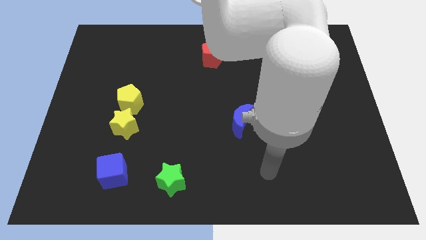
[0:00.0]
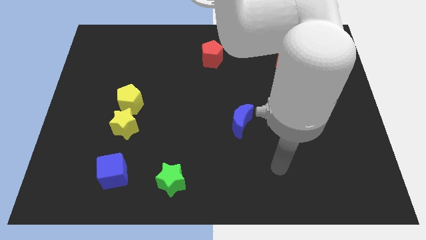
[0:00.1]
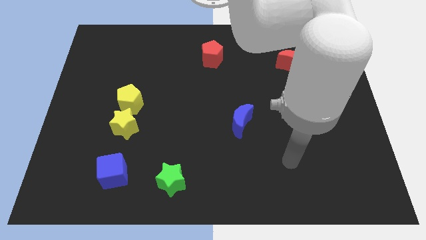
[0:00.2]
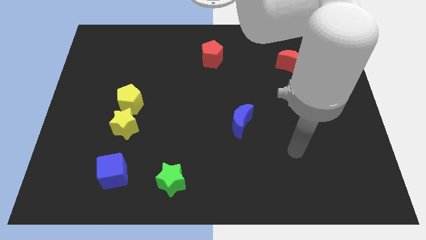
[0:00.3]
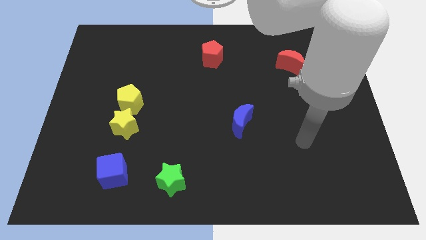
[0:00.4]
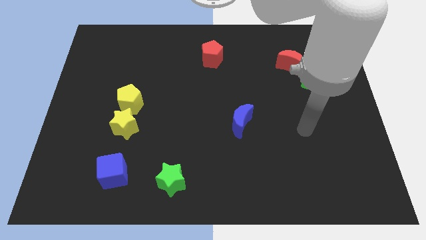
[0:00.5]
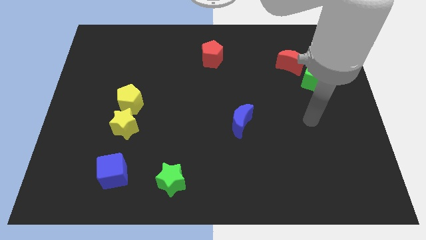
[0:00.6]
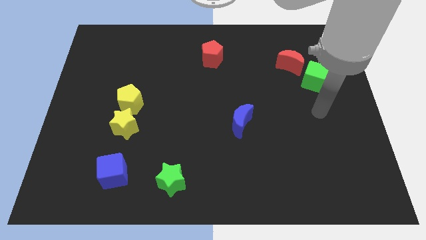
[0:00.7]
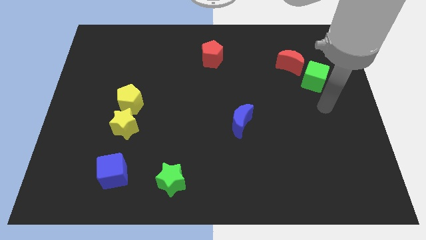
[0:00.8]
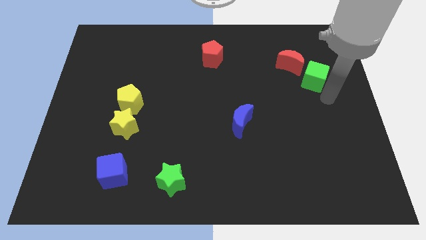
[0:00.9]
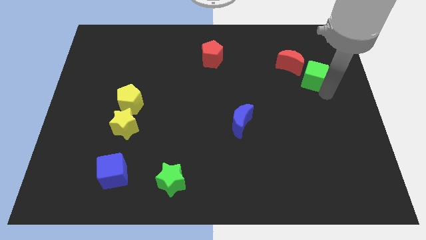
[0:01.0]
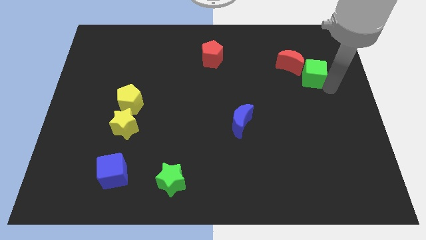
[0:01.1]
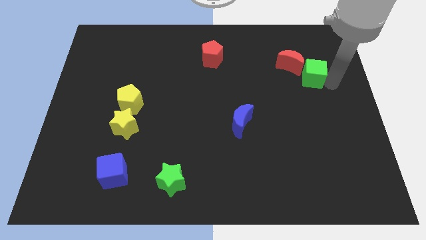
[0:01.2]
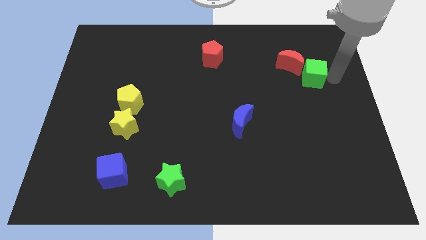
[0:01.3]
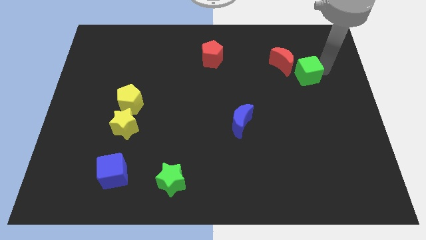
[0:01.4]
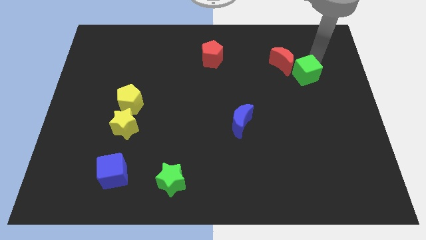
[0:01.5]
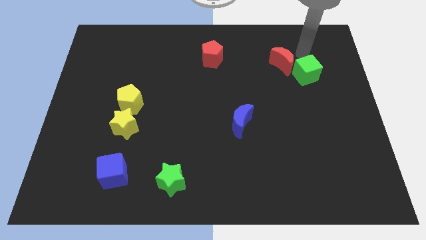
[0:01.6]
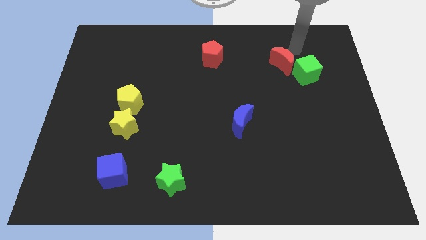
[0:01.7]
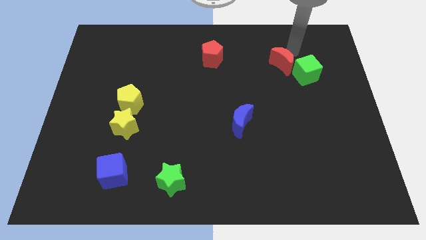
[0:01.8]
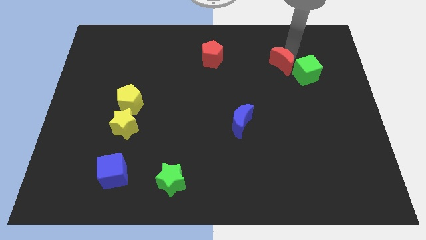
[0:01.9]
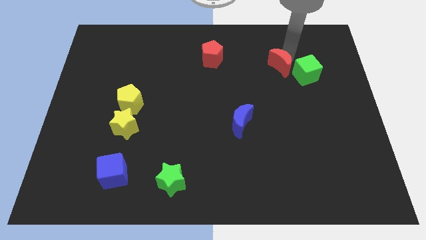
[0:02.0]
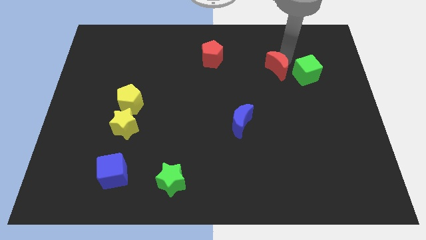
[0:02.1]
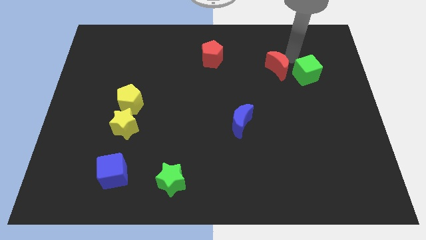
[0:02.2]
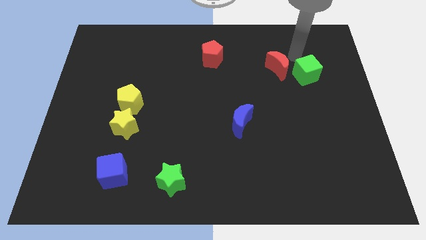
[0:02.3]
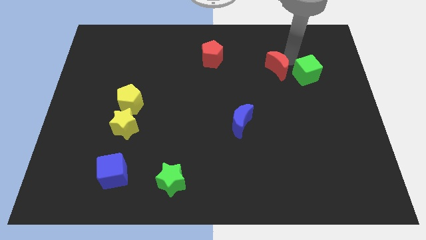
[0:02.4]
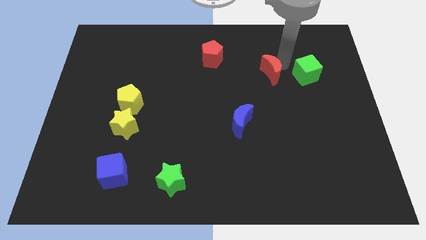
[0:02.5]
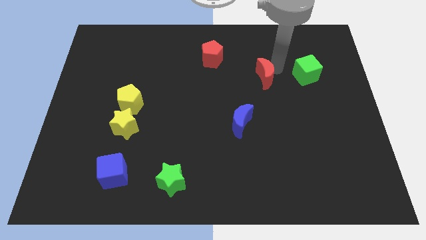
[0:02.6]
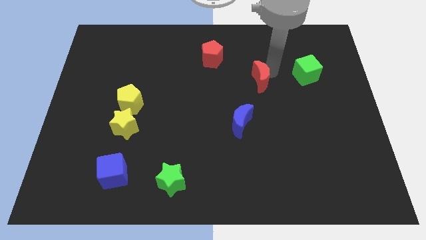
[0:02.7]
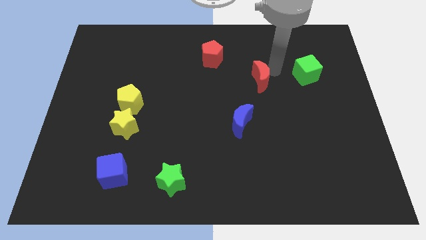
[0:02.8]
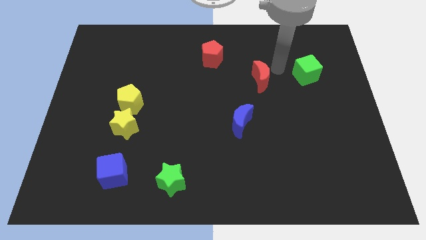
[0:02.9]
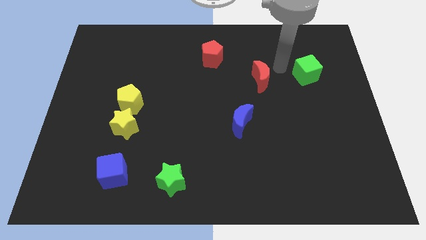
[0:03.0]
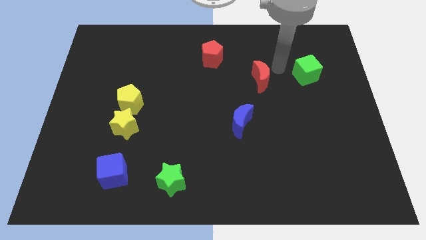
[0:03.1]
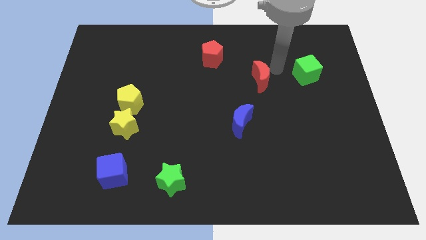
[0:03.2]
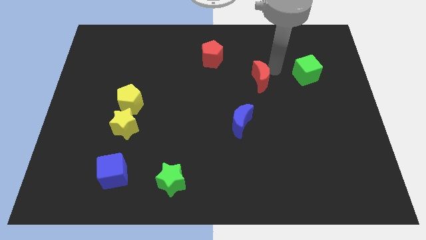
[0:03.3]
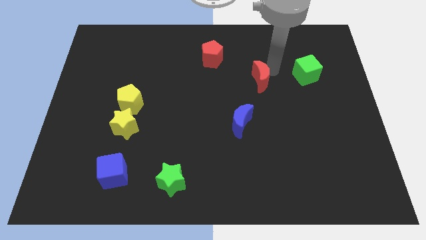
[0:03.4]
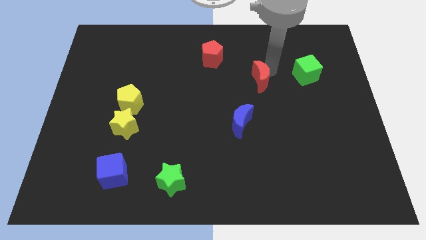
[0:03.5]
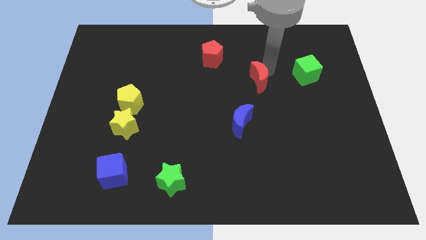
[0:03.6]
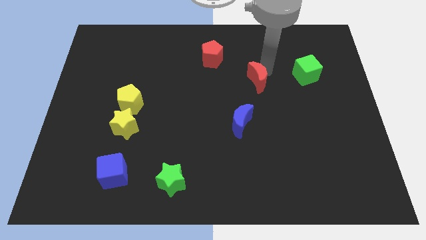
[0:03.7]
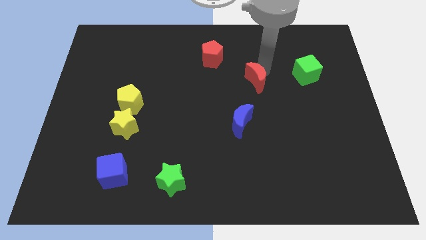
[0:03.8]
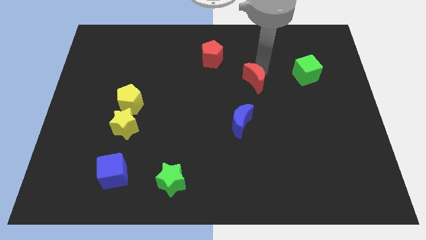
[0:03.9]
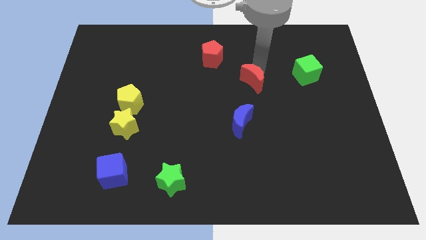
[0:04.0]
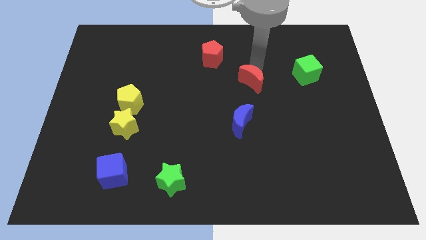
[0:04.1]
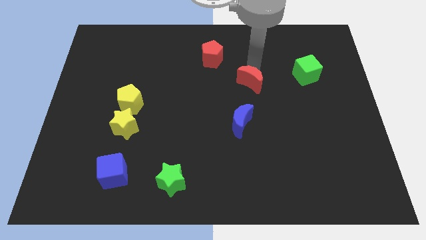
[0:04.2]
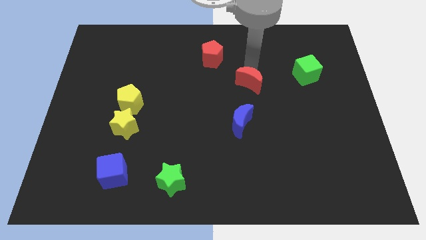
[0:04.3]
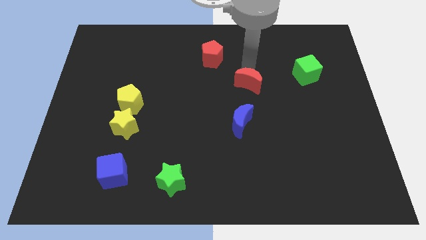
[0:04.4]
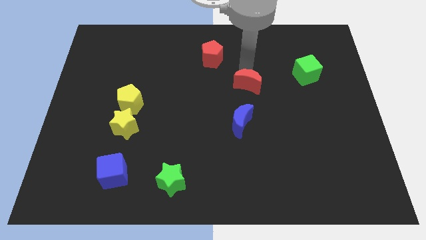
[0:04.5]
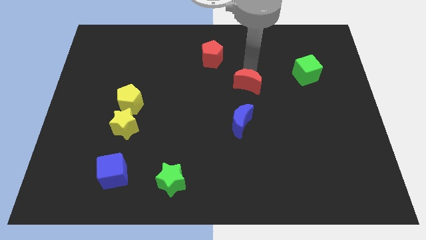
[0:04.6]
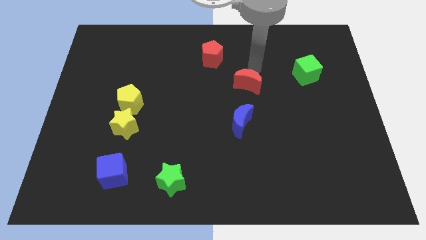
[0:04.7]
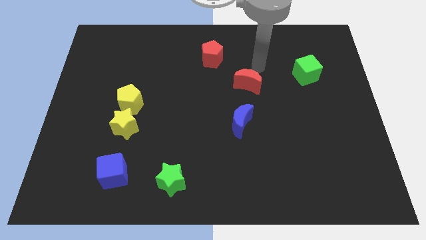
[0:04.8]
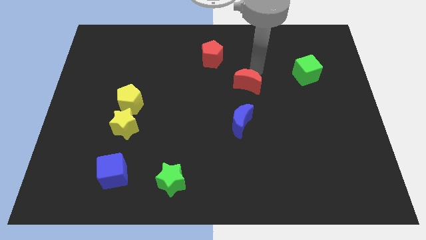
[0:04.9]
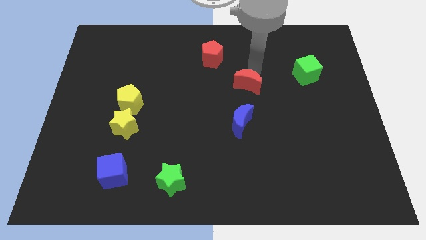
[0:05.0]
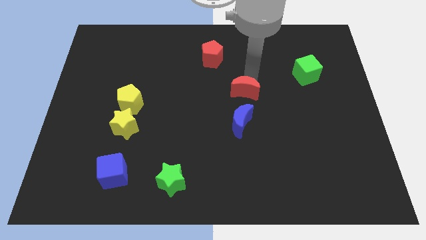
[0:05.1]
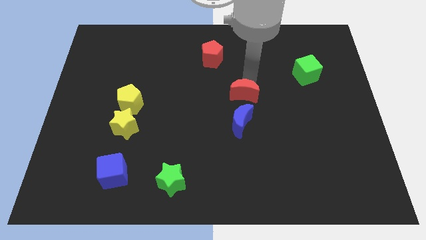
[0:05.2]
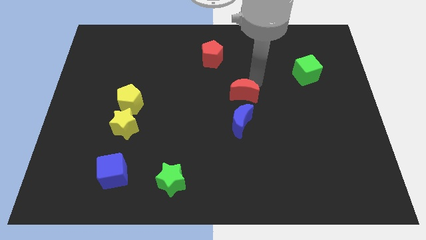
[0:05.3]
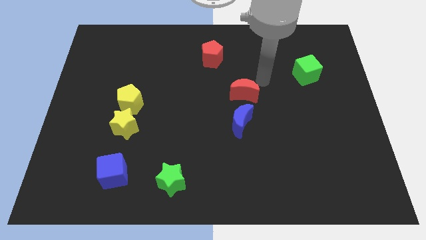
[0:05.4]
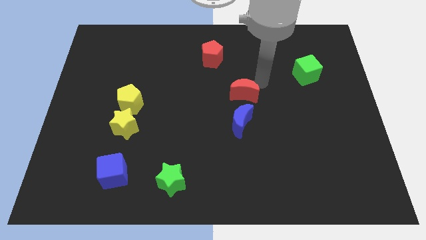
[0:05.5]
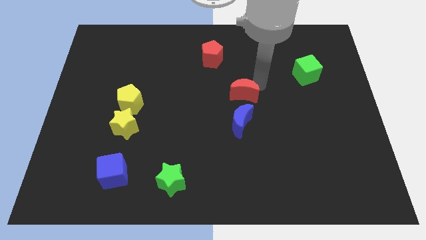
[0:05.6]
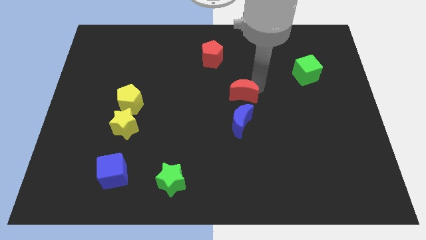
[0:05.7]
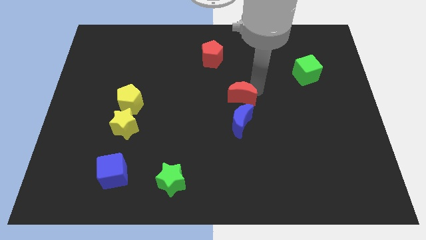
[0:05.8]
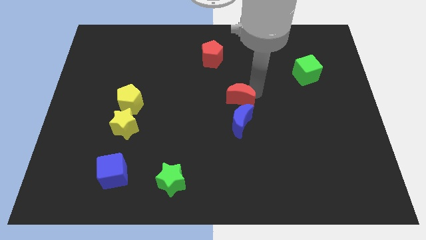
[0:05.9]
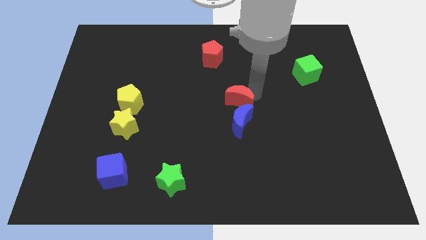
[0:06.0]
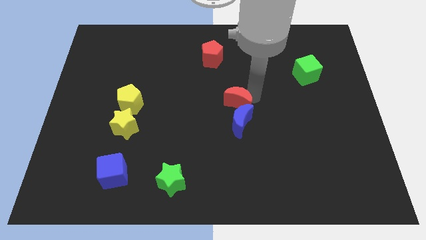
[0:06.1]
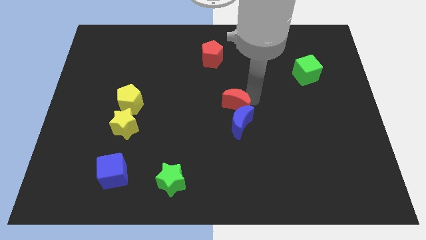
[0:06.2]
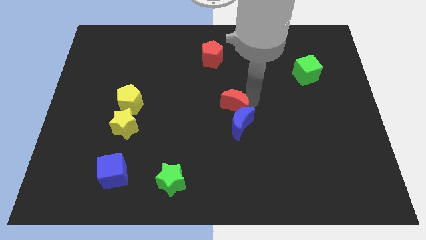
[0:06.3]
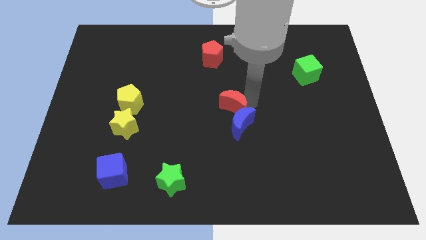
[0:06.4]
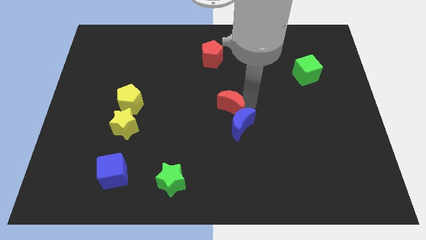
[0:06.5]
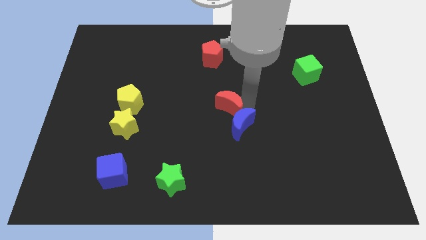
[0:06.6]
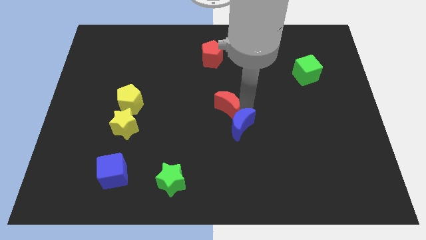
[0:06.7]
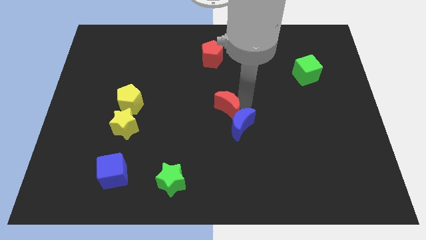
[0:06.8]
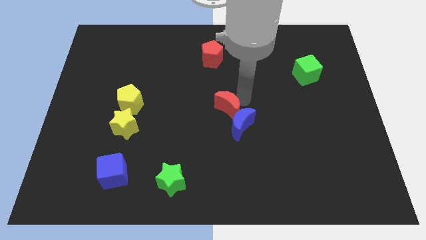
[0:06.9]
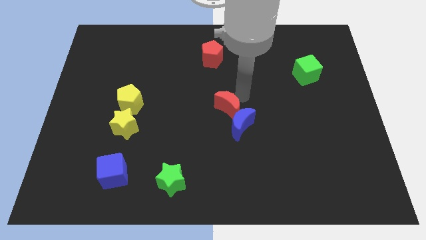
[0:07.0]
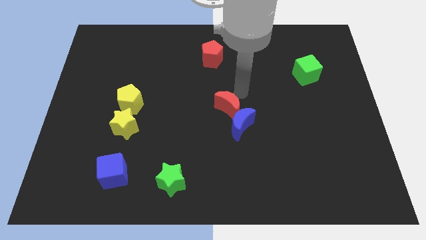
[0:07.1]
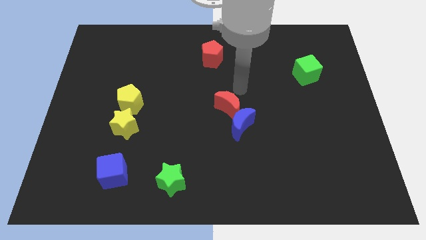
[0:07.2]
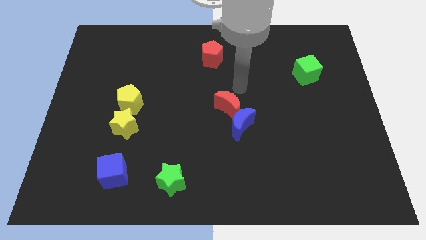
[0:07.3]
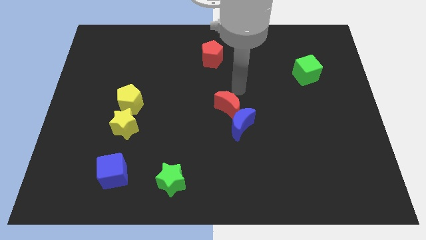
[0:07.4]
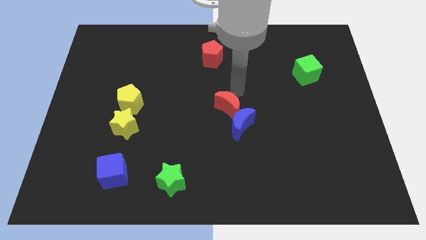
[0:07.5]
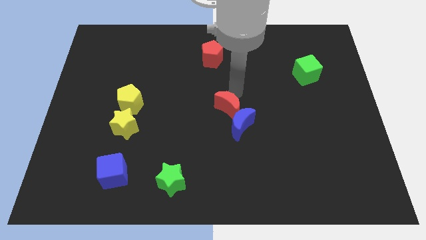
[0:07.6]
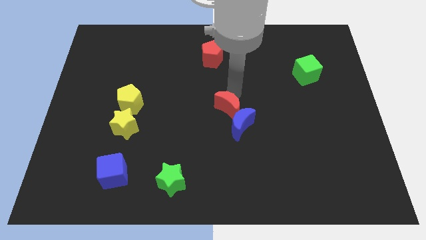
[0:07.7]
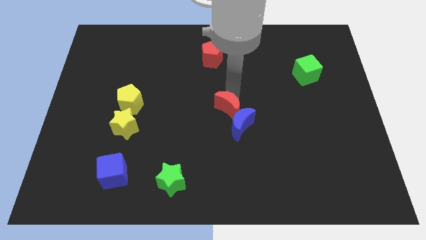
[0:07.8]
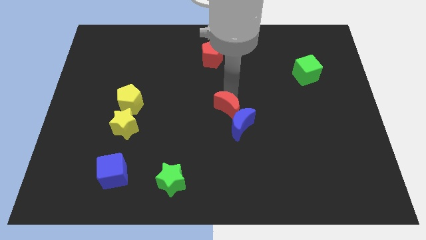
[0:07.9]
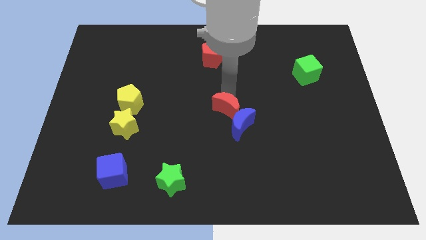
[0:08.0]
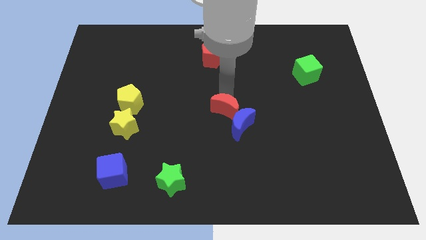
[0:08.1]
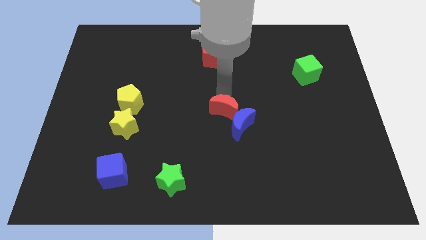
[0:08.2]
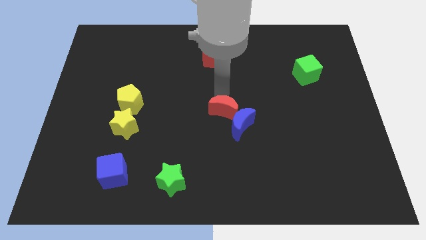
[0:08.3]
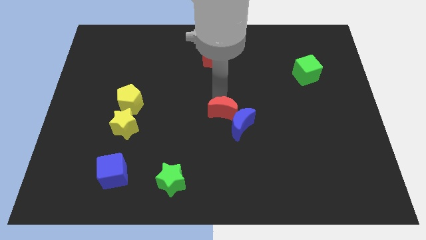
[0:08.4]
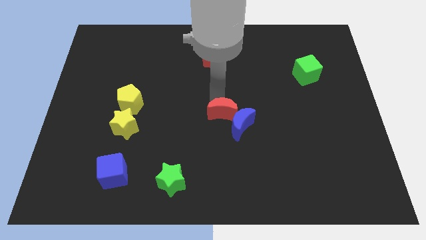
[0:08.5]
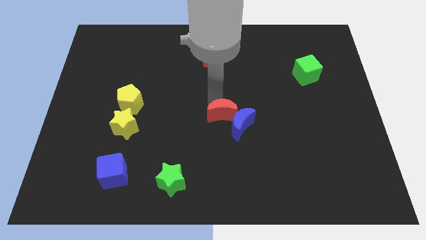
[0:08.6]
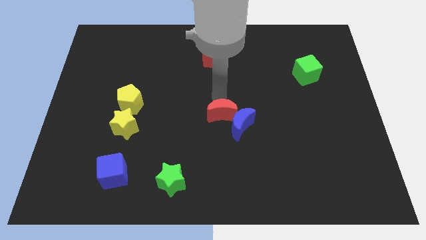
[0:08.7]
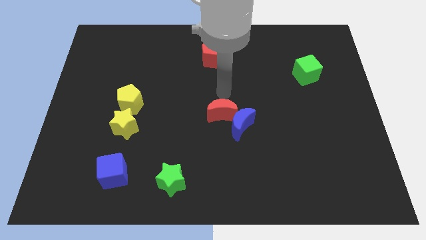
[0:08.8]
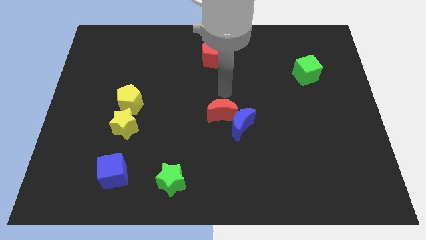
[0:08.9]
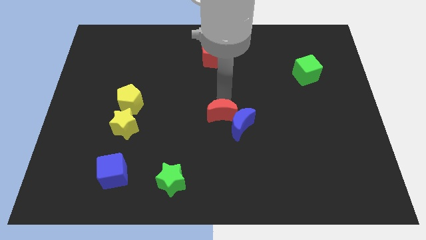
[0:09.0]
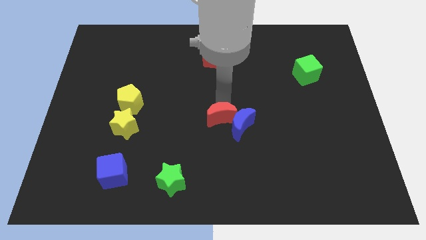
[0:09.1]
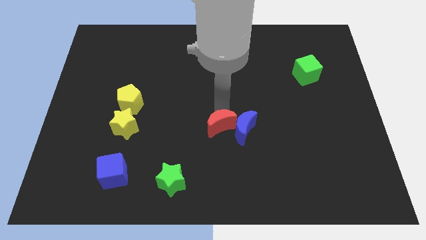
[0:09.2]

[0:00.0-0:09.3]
push the red moon diagonally down and to the left of the blue moon
